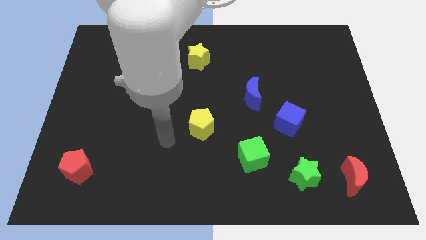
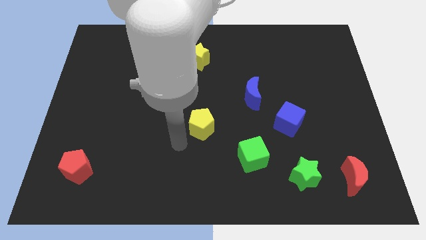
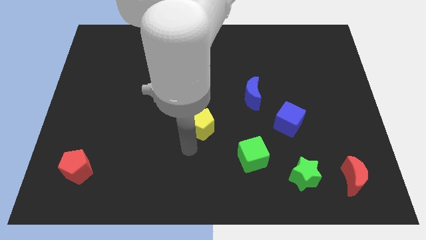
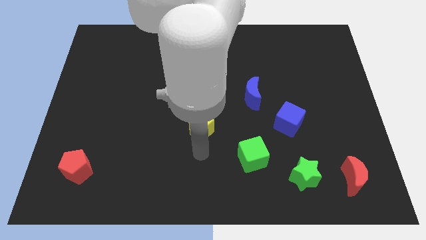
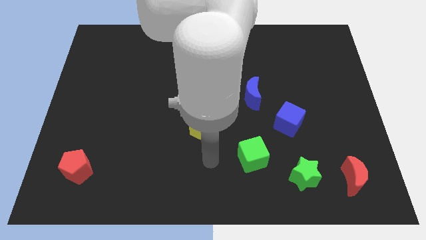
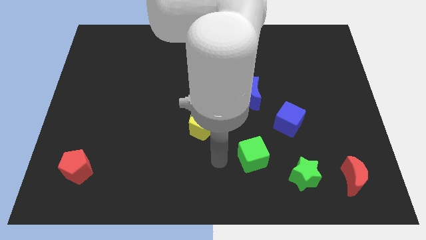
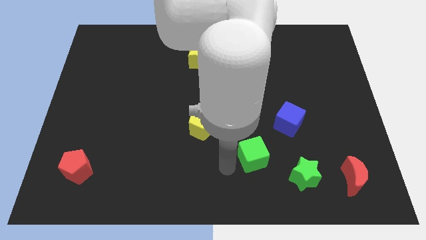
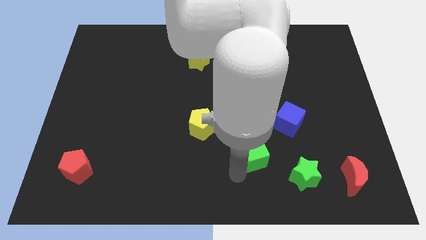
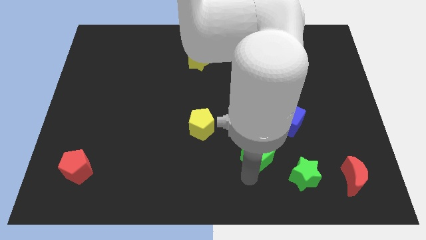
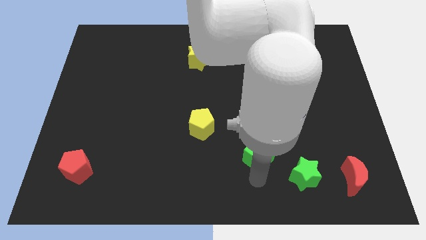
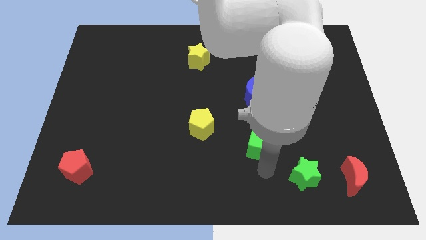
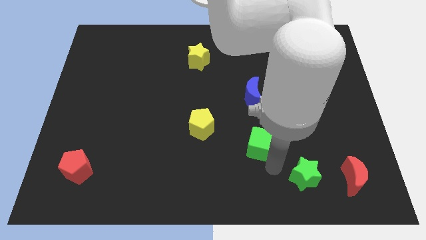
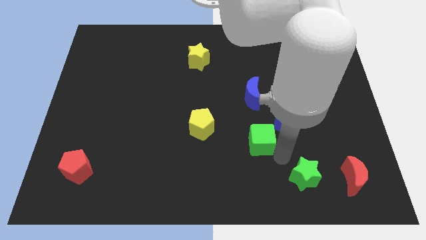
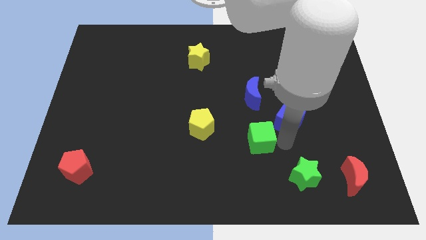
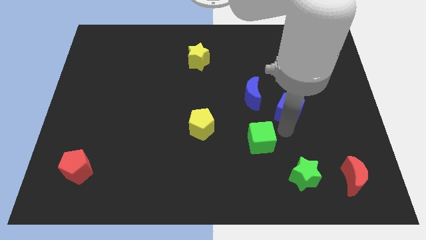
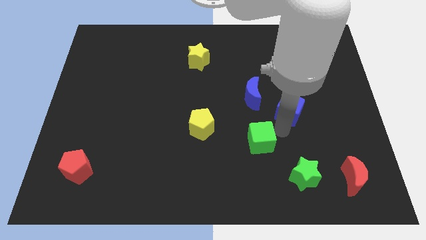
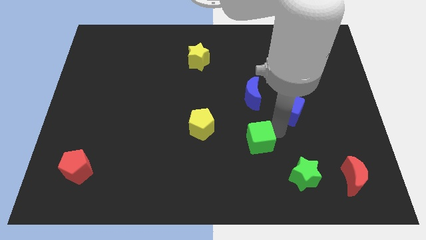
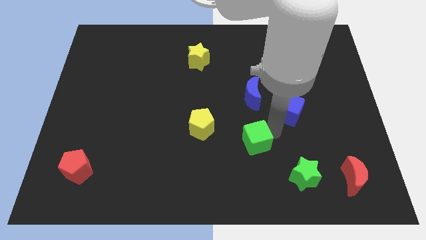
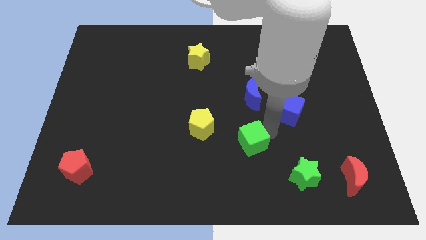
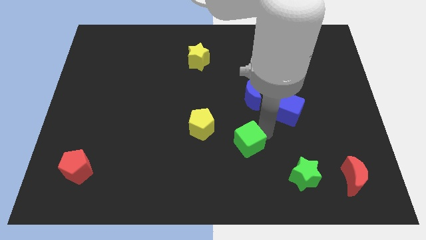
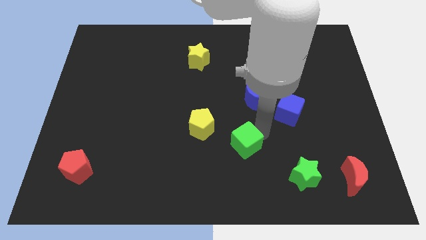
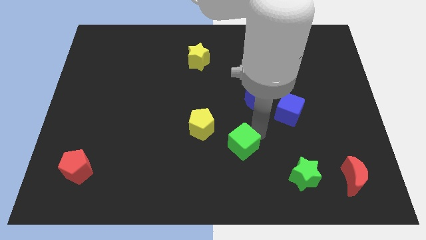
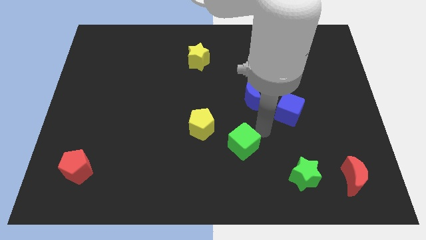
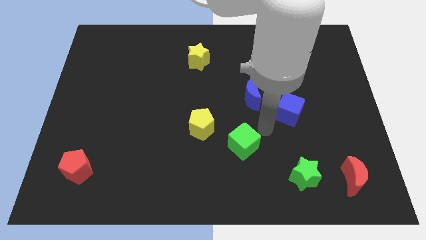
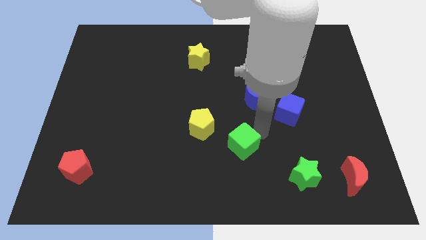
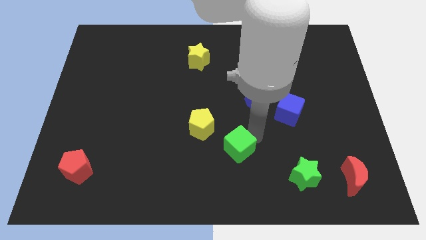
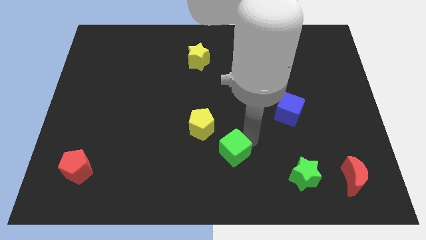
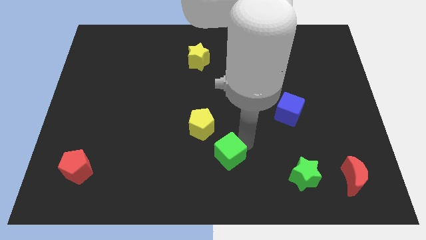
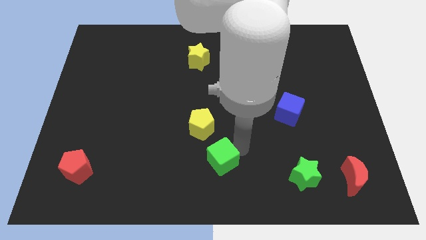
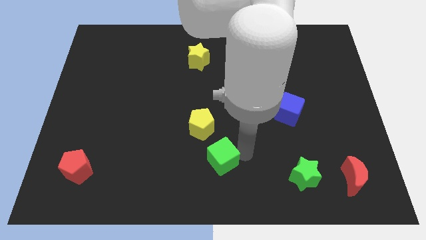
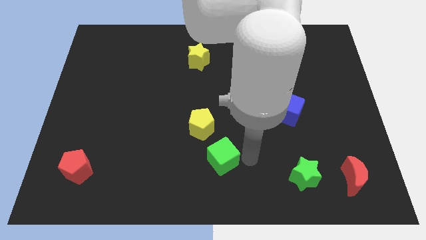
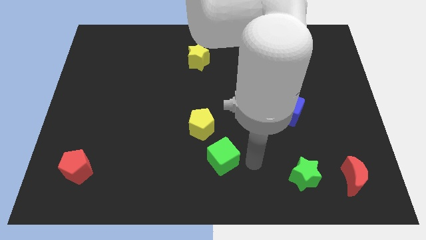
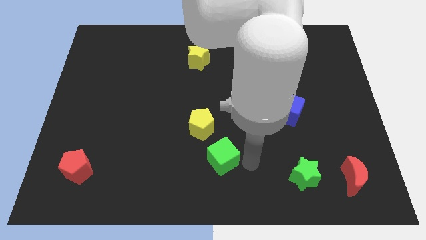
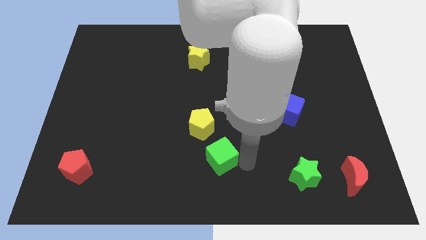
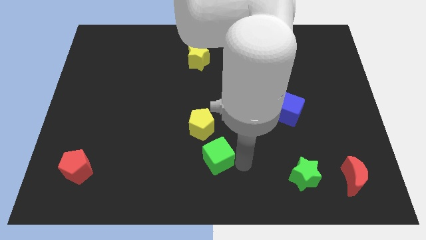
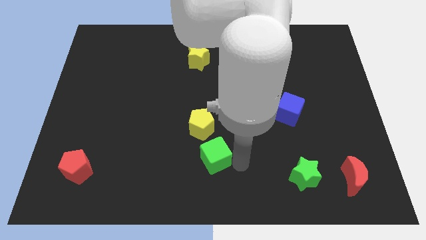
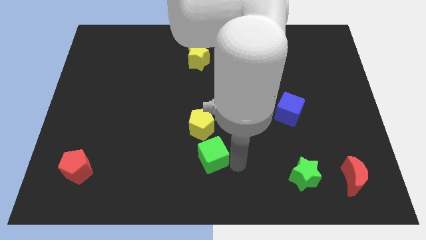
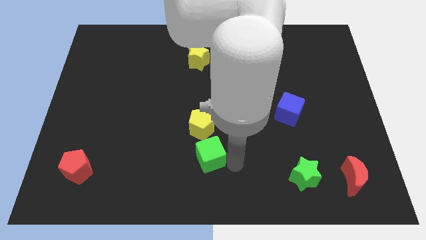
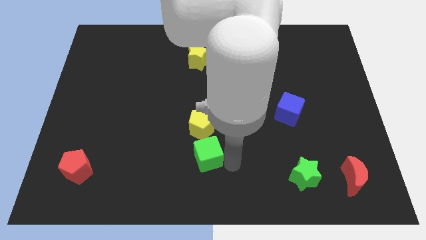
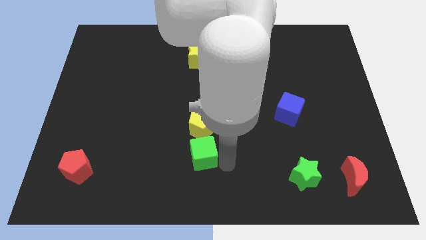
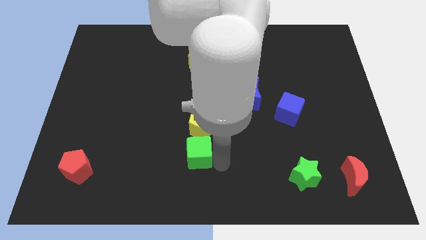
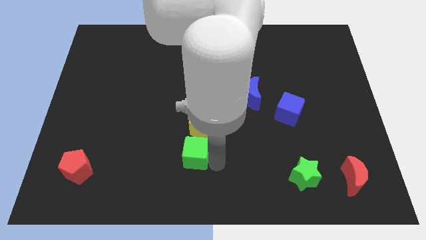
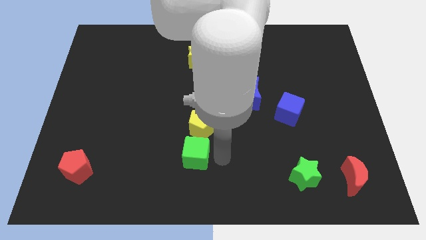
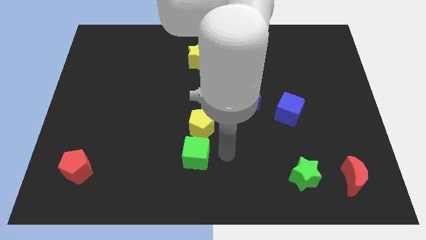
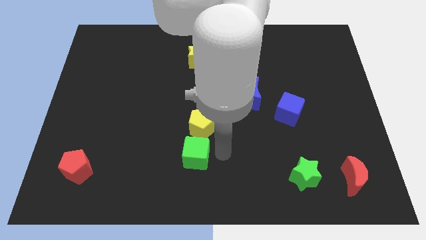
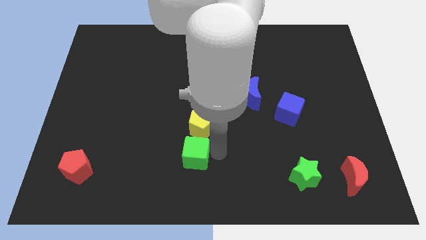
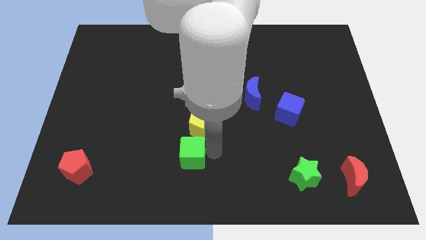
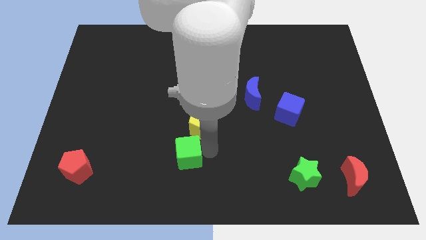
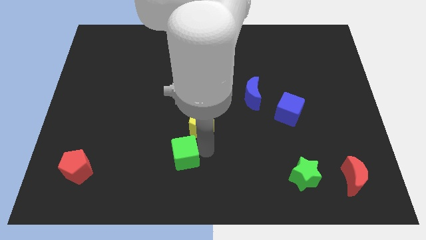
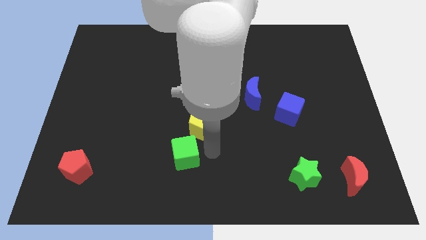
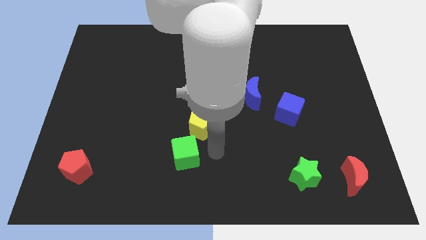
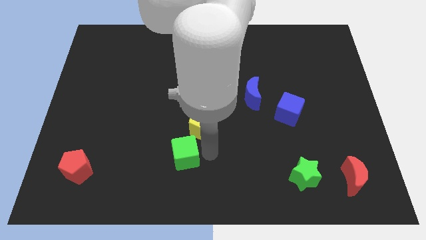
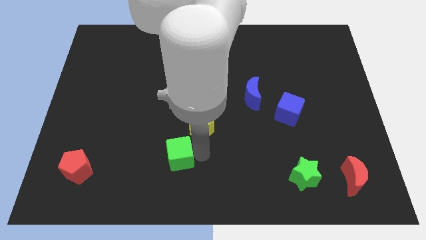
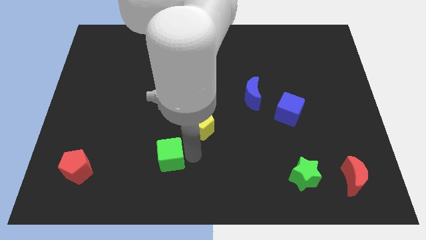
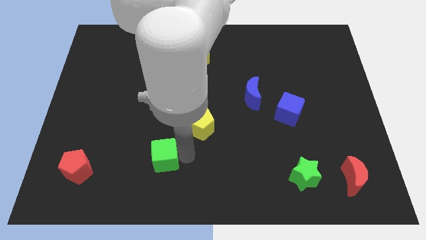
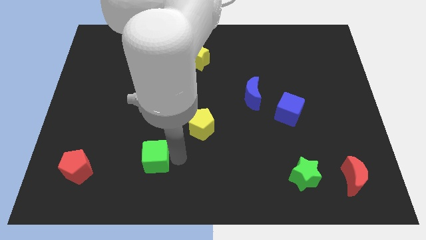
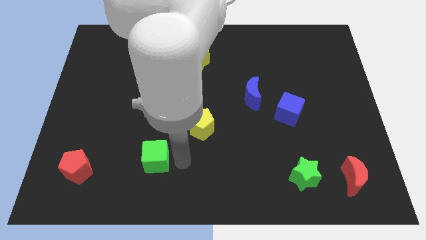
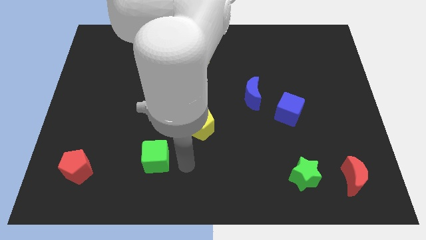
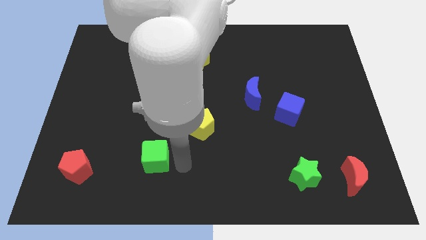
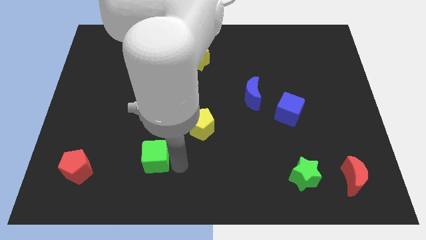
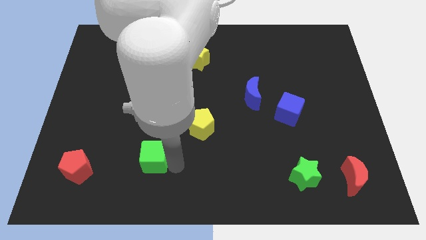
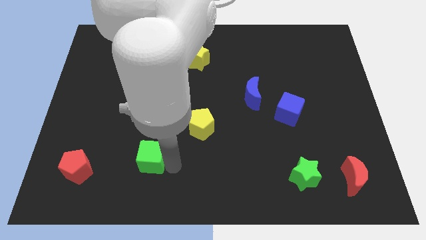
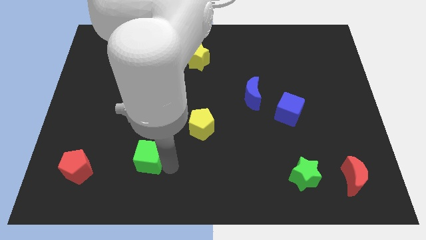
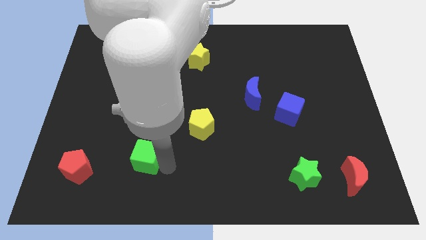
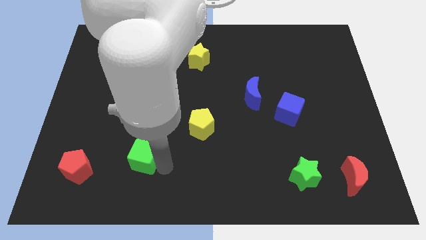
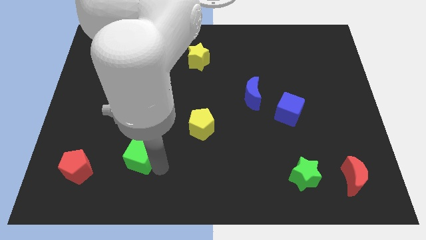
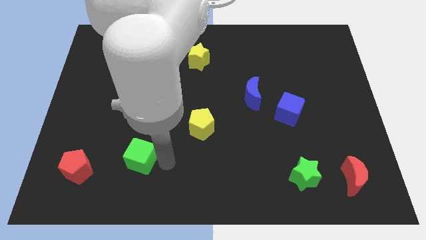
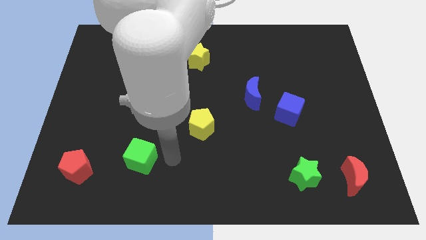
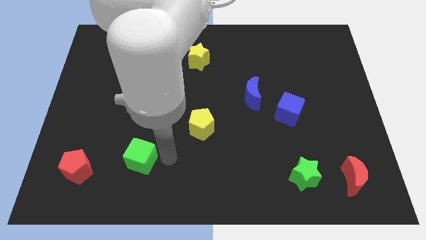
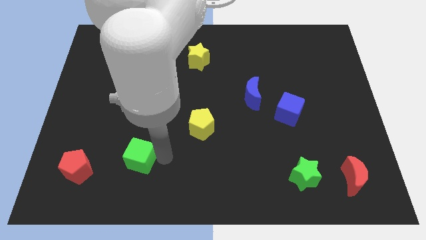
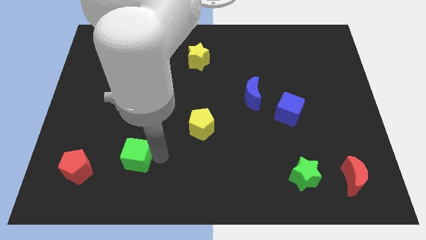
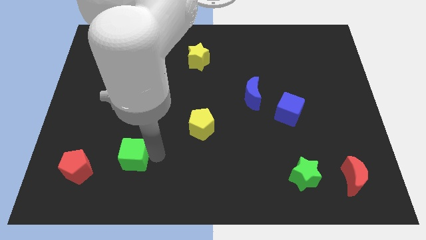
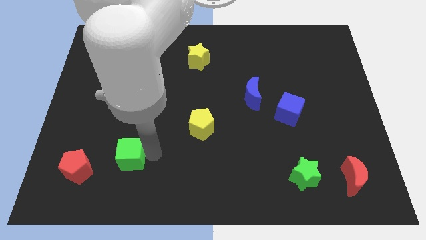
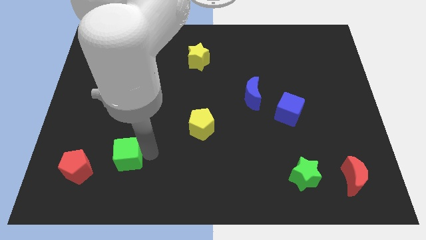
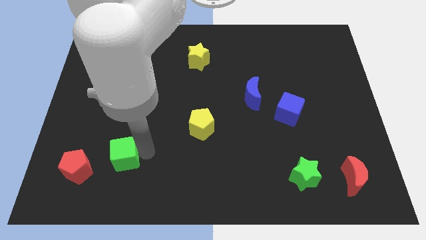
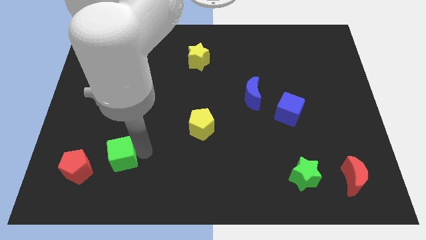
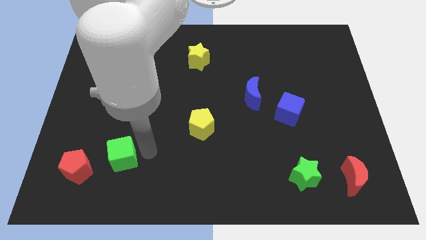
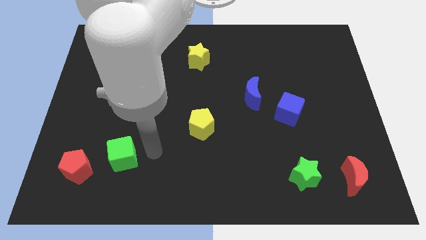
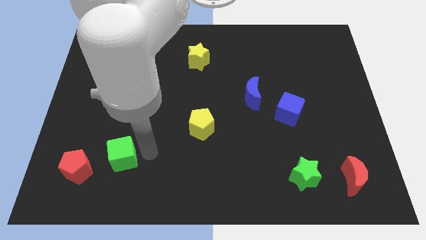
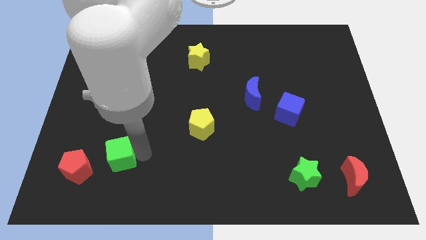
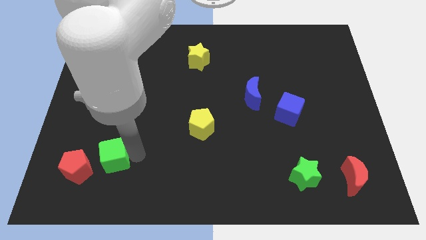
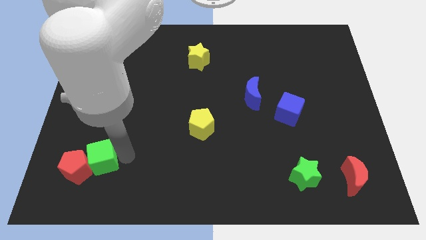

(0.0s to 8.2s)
slide the green cube towards the red pentagon
